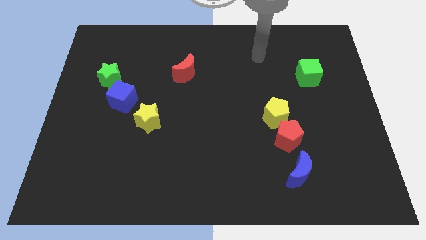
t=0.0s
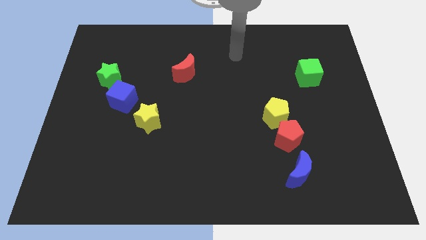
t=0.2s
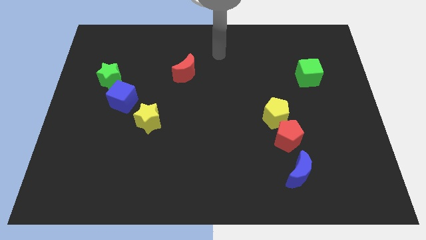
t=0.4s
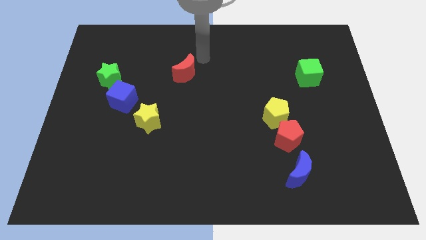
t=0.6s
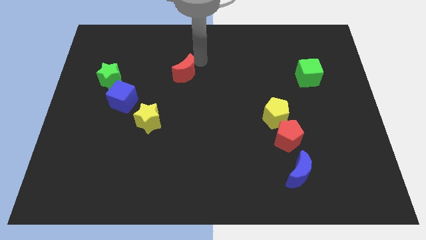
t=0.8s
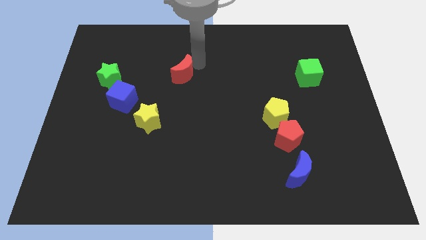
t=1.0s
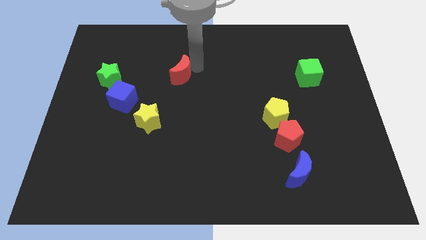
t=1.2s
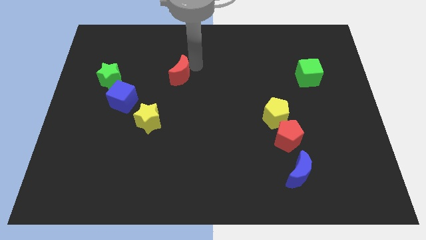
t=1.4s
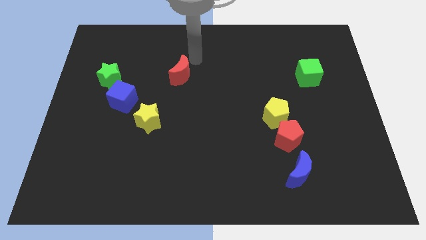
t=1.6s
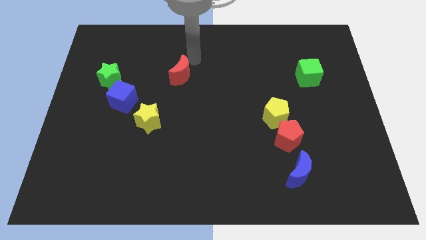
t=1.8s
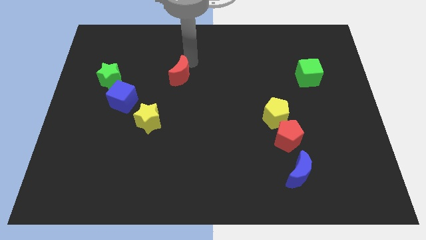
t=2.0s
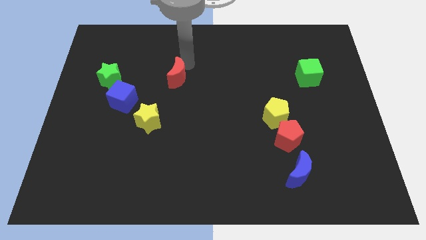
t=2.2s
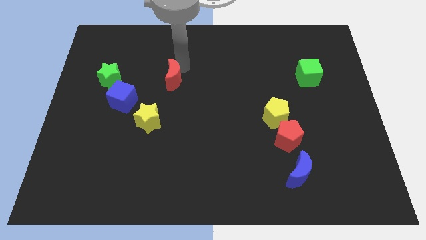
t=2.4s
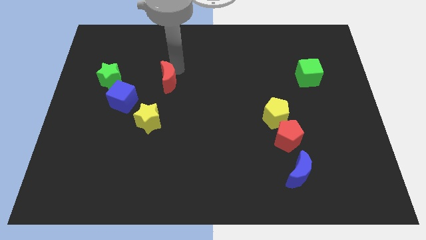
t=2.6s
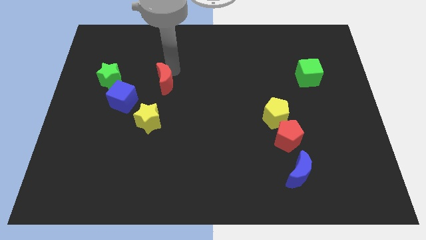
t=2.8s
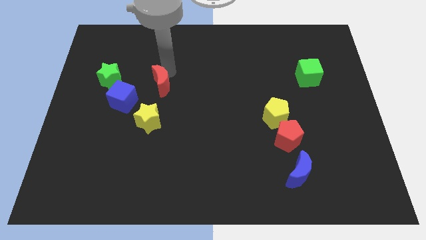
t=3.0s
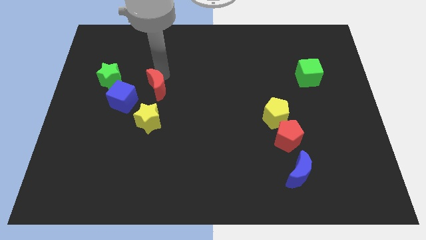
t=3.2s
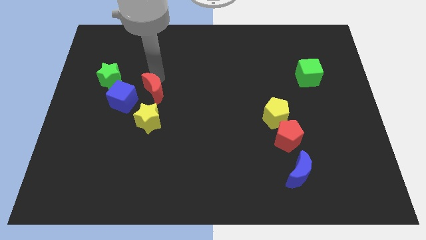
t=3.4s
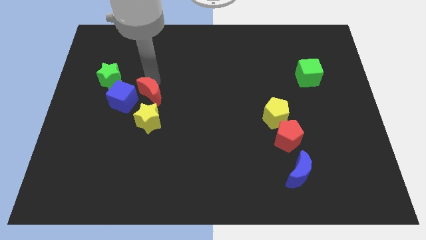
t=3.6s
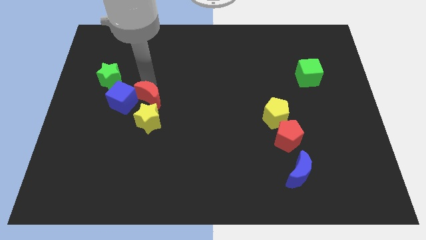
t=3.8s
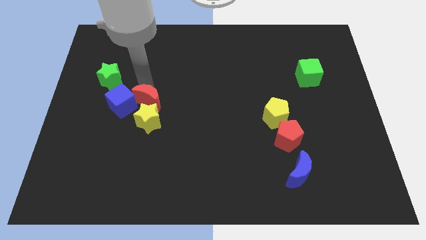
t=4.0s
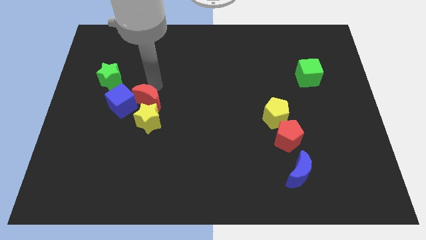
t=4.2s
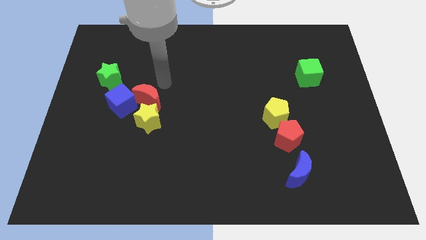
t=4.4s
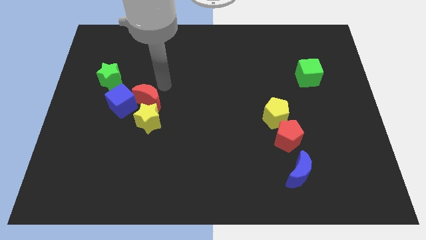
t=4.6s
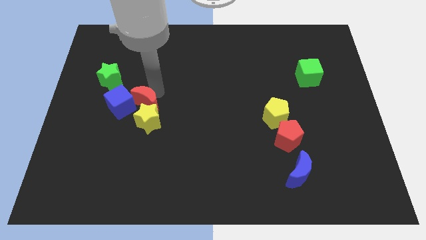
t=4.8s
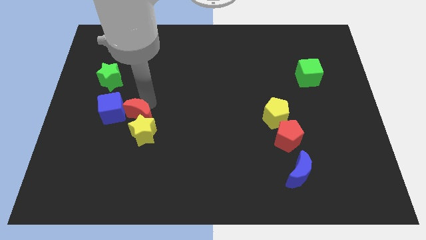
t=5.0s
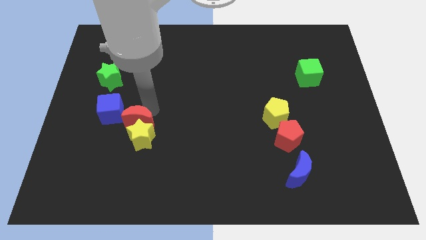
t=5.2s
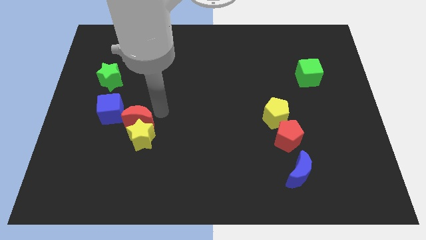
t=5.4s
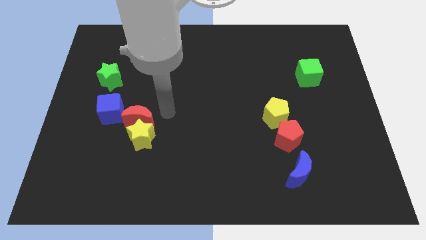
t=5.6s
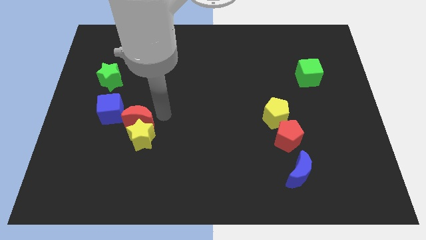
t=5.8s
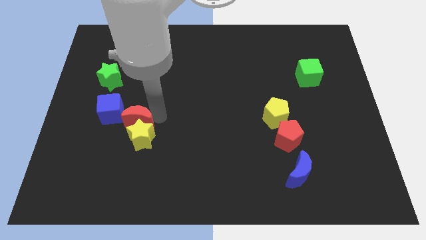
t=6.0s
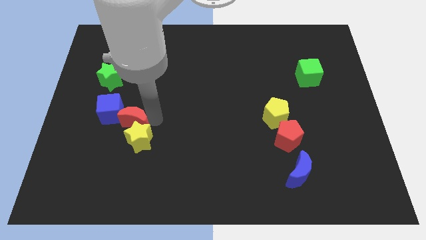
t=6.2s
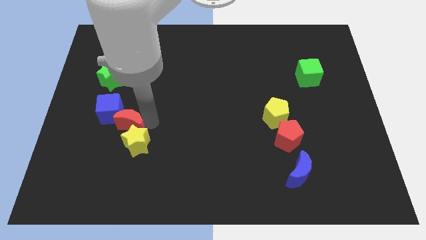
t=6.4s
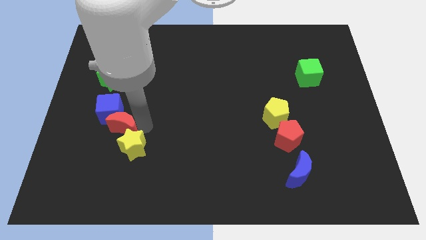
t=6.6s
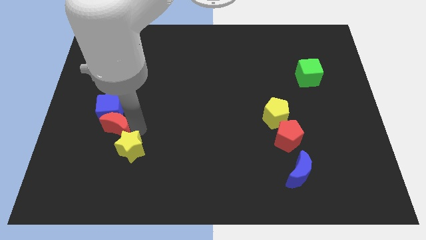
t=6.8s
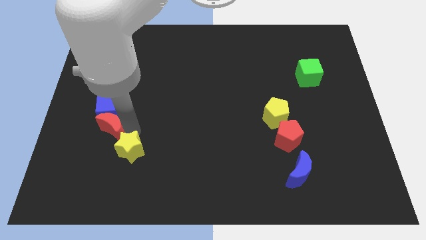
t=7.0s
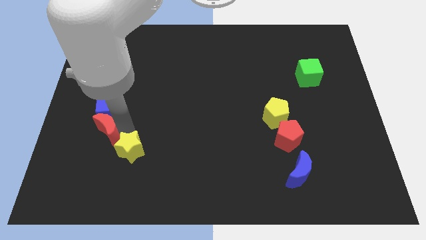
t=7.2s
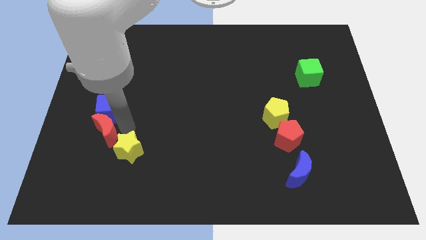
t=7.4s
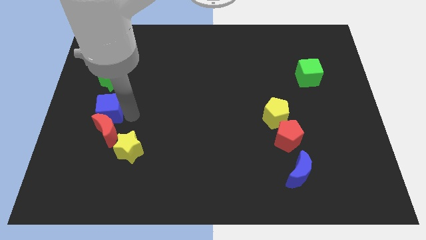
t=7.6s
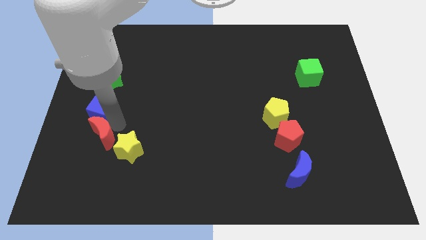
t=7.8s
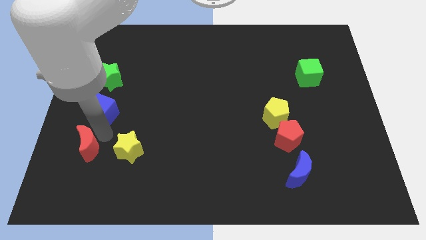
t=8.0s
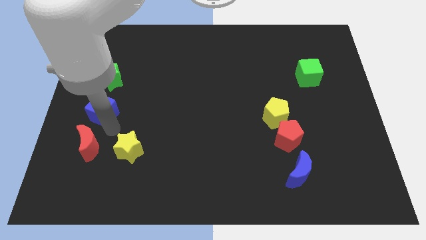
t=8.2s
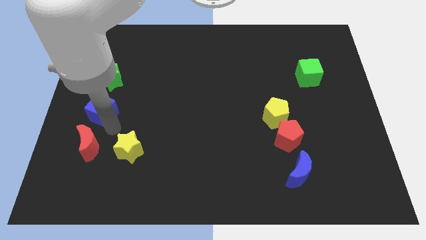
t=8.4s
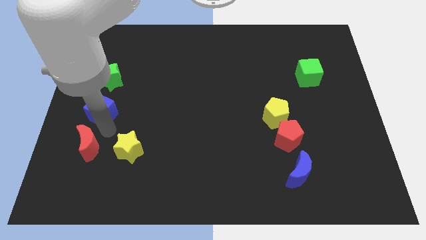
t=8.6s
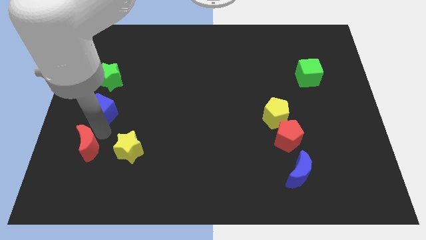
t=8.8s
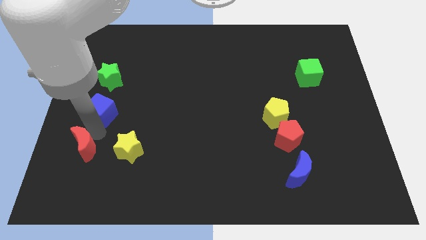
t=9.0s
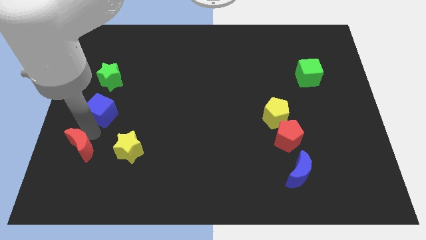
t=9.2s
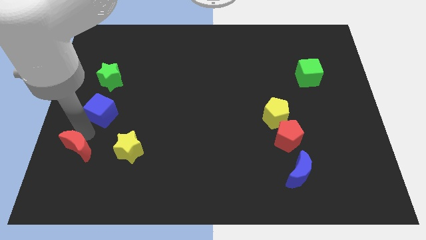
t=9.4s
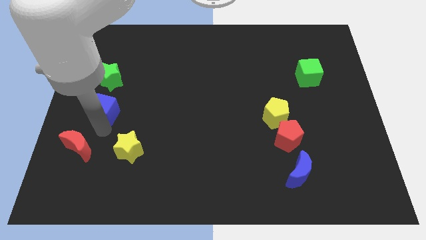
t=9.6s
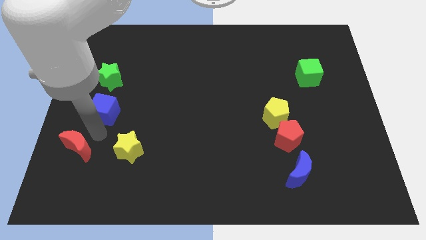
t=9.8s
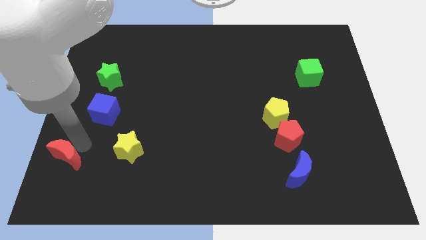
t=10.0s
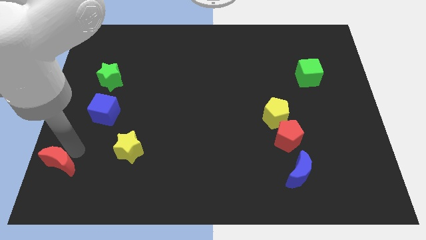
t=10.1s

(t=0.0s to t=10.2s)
push the red moon to the lower left corner

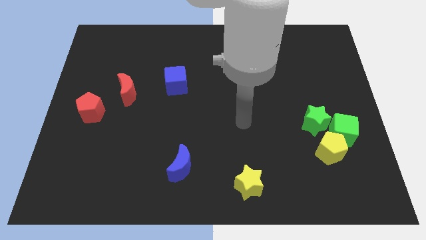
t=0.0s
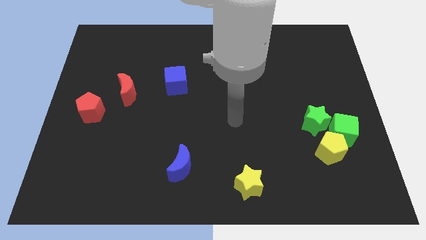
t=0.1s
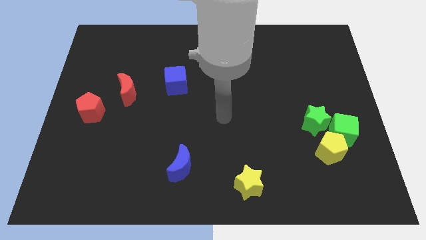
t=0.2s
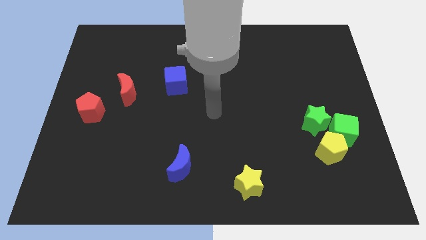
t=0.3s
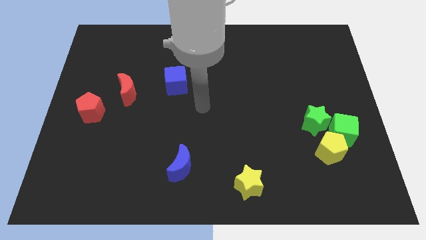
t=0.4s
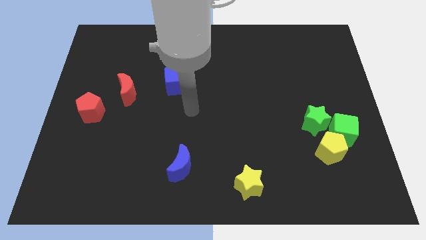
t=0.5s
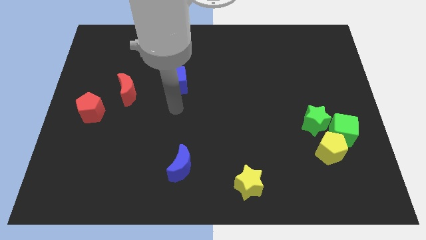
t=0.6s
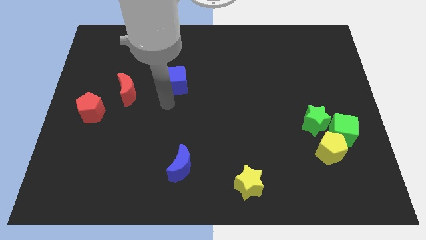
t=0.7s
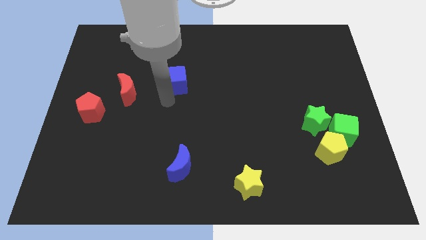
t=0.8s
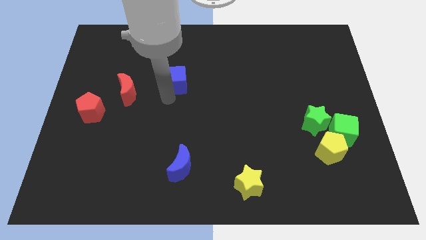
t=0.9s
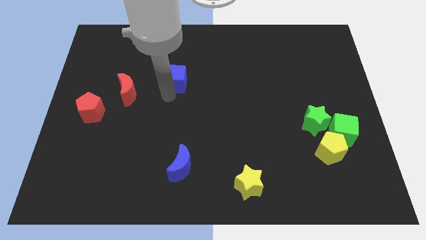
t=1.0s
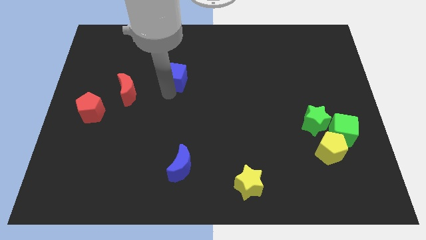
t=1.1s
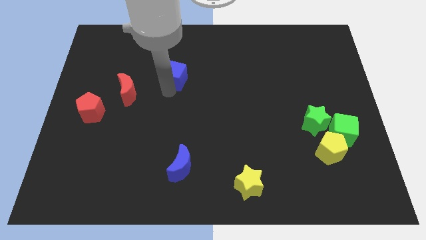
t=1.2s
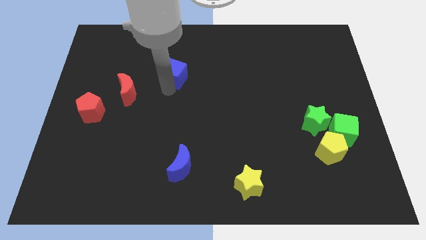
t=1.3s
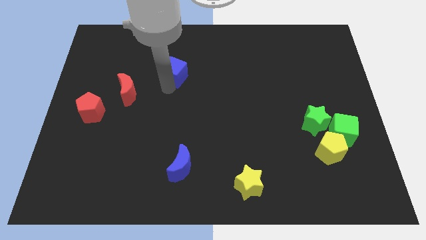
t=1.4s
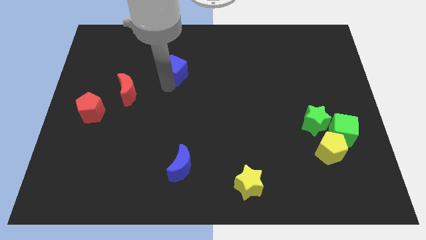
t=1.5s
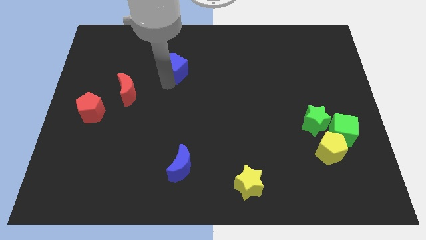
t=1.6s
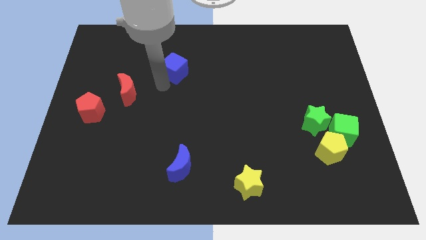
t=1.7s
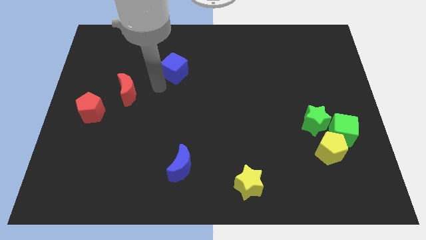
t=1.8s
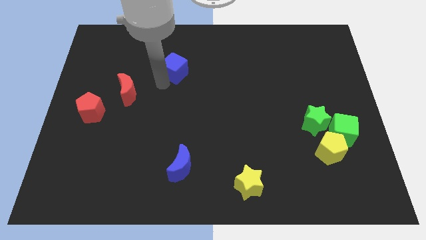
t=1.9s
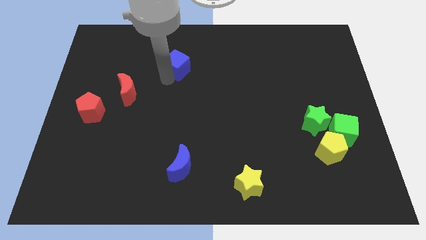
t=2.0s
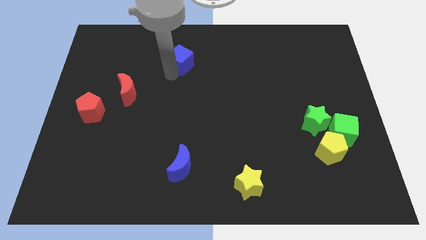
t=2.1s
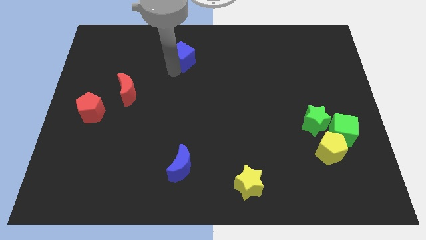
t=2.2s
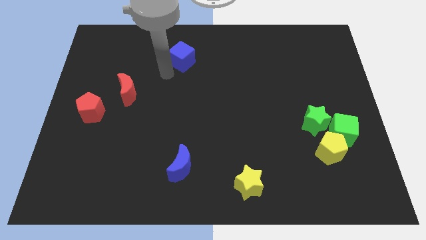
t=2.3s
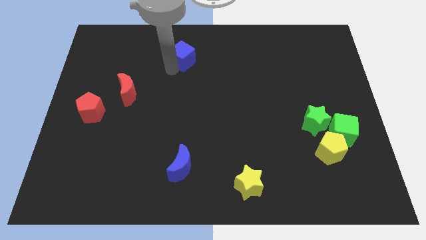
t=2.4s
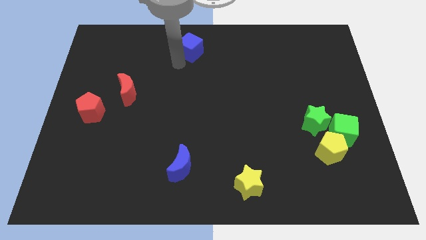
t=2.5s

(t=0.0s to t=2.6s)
push the blue cube to the top
